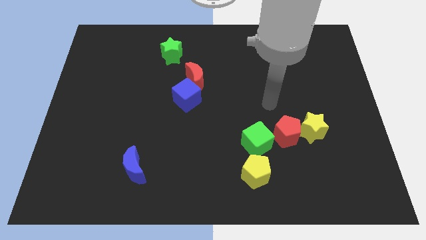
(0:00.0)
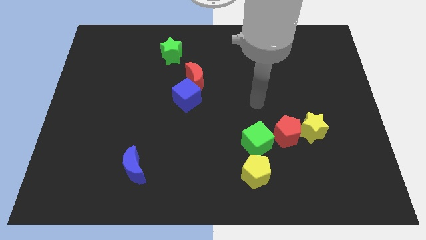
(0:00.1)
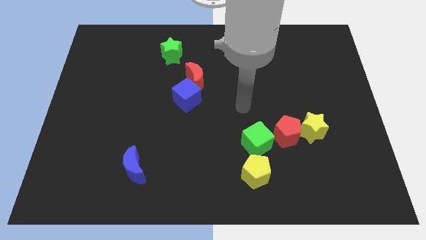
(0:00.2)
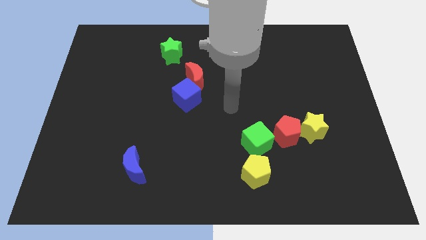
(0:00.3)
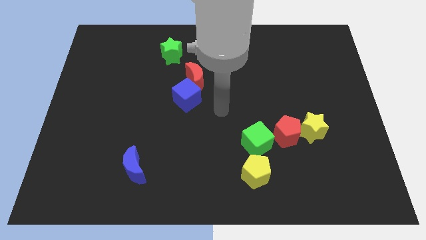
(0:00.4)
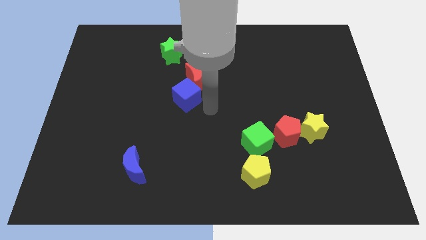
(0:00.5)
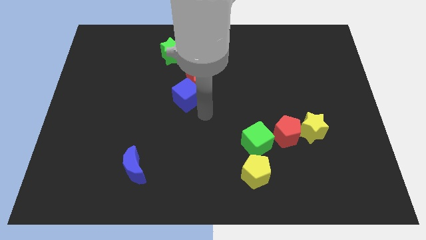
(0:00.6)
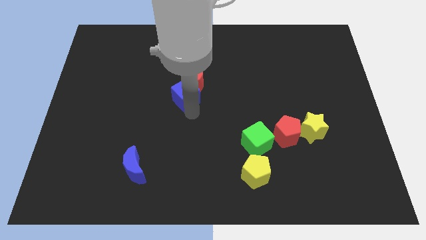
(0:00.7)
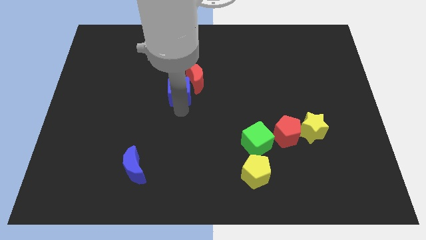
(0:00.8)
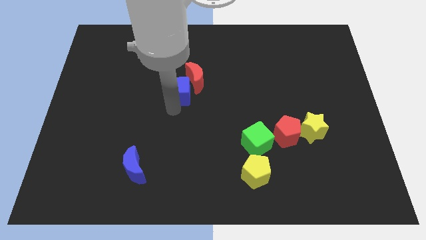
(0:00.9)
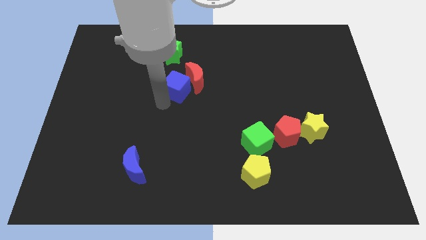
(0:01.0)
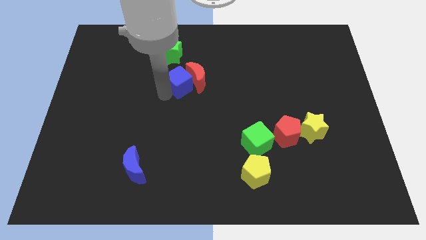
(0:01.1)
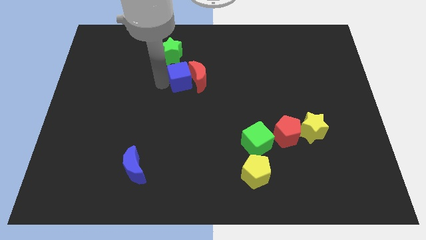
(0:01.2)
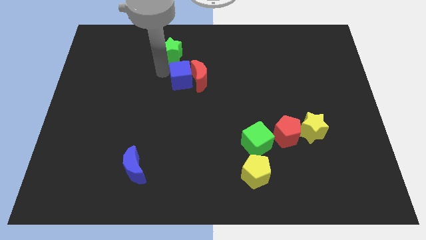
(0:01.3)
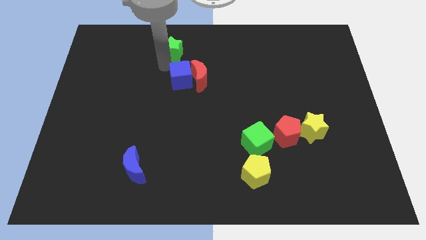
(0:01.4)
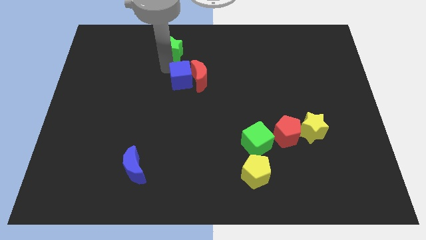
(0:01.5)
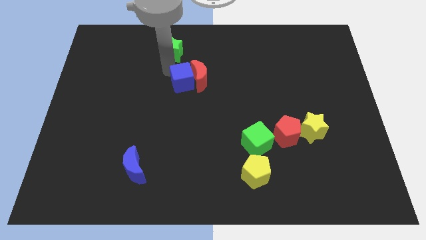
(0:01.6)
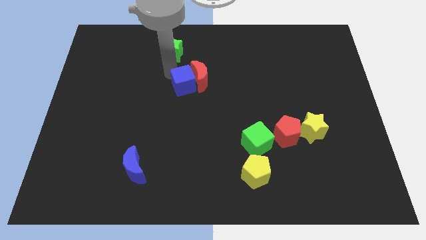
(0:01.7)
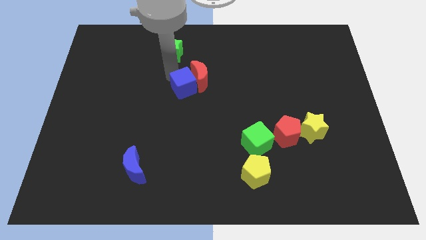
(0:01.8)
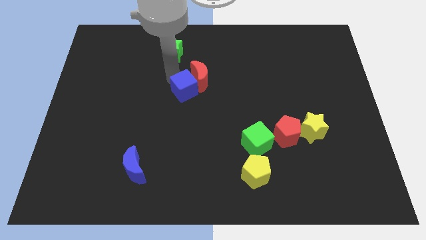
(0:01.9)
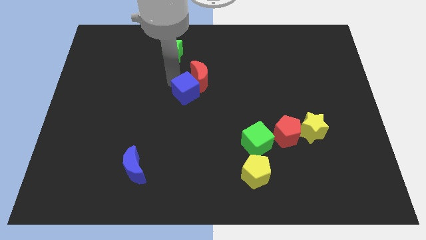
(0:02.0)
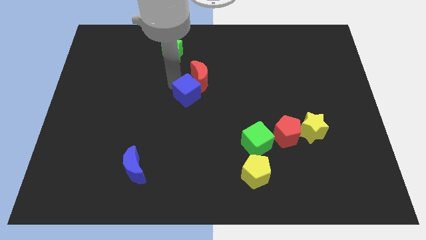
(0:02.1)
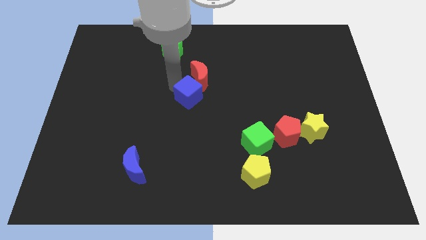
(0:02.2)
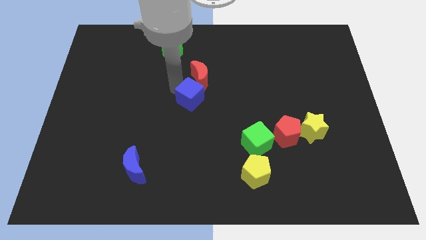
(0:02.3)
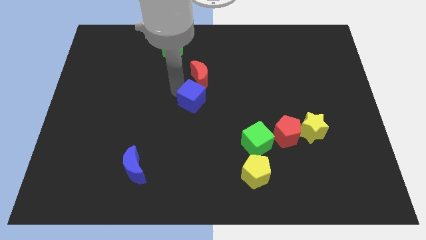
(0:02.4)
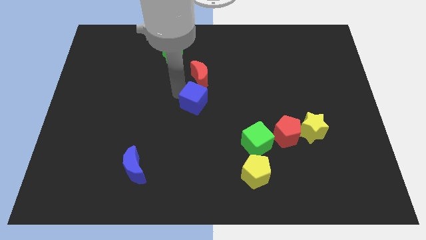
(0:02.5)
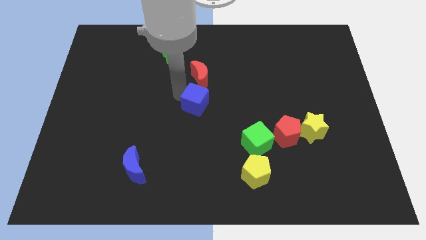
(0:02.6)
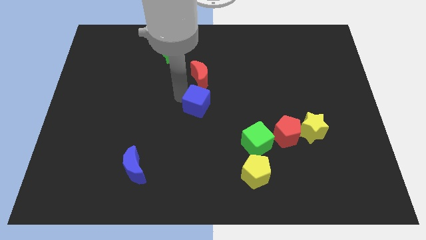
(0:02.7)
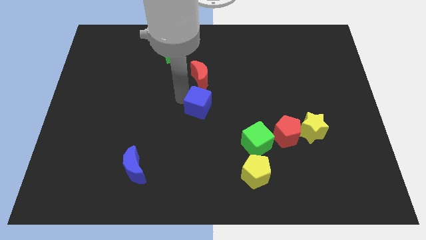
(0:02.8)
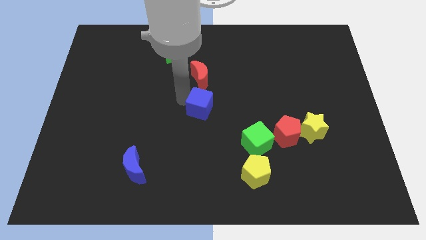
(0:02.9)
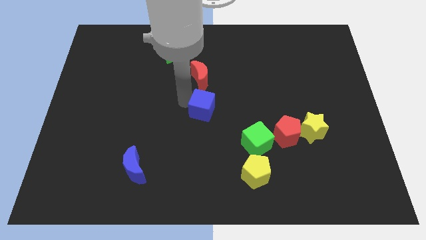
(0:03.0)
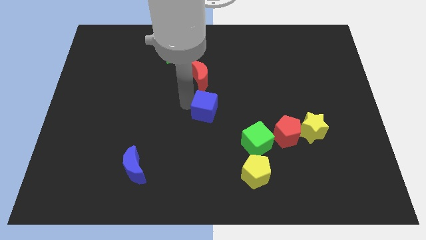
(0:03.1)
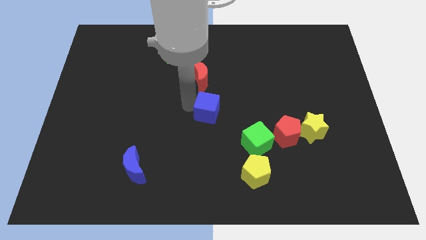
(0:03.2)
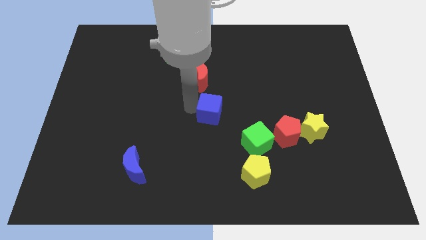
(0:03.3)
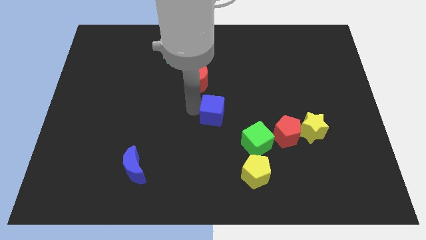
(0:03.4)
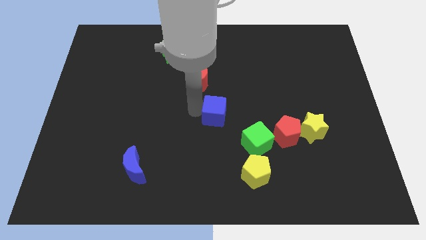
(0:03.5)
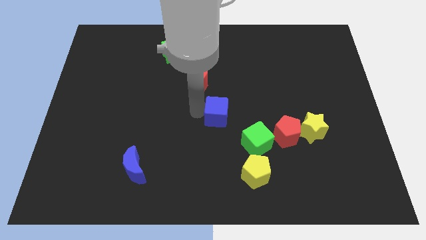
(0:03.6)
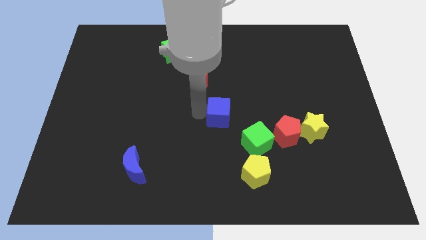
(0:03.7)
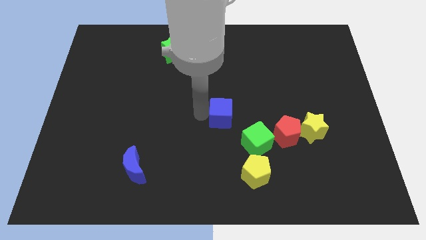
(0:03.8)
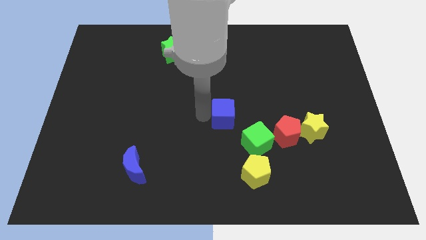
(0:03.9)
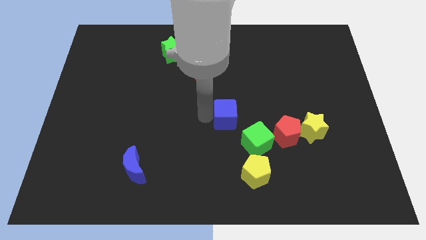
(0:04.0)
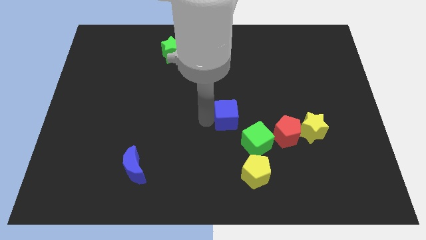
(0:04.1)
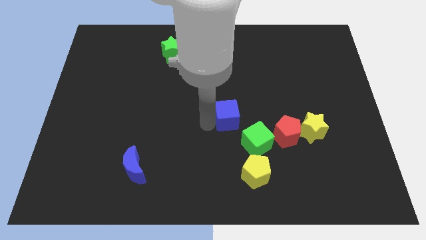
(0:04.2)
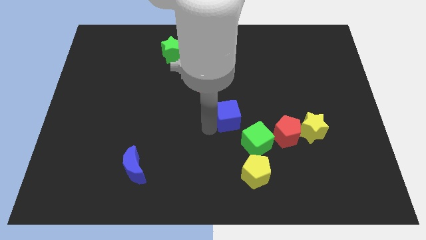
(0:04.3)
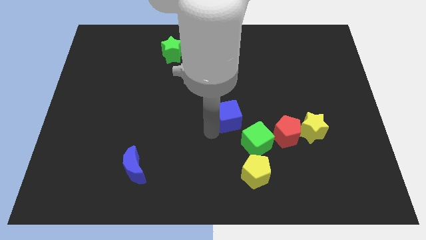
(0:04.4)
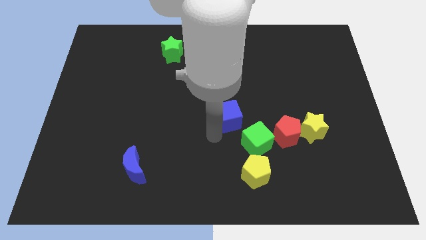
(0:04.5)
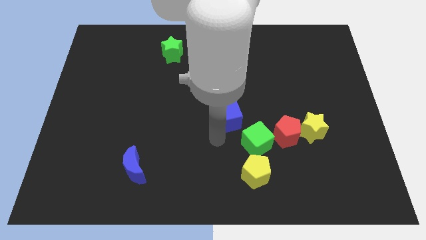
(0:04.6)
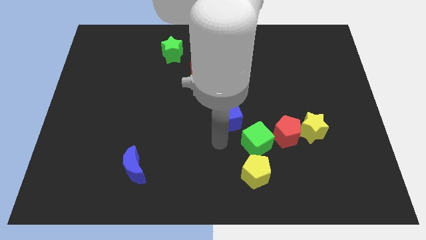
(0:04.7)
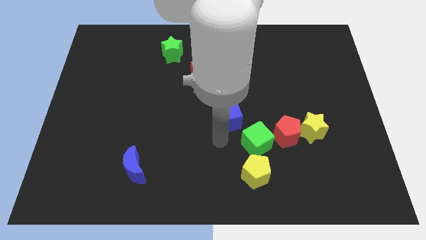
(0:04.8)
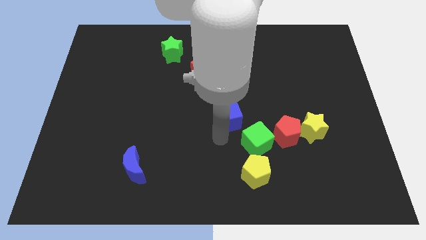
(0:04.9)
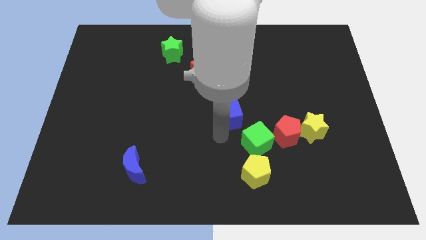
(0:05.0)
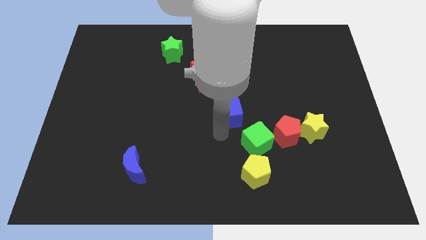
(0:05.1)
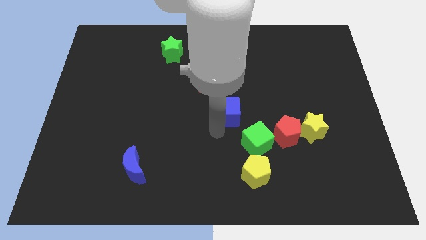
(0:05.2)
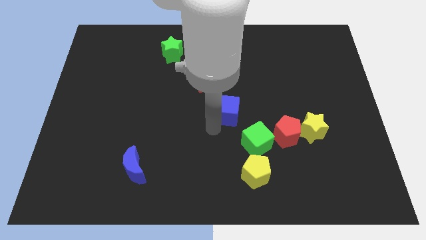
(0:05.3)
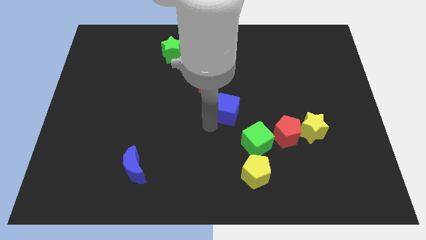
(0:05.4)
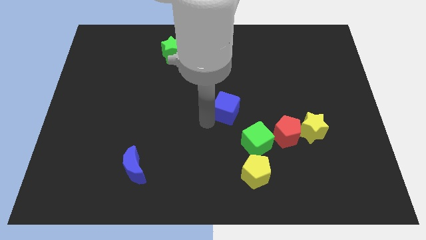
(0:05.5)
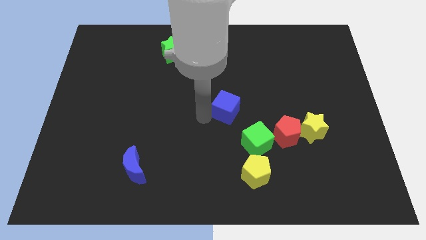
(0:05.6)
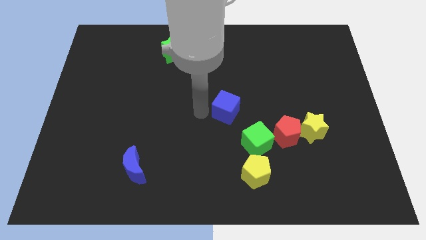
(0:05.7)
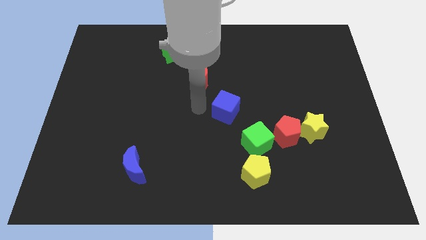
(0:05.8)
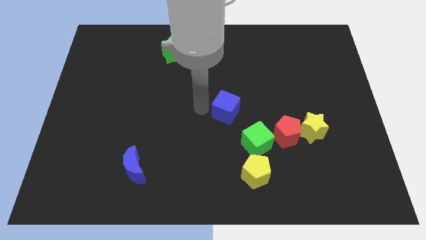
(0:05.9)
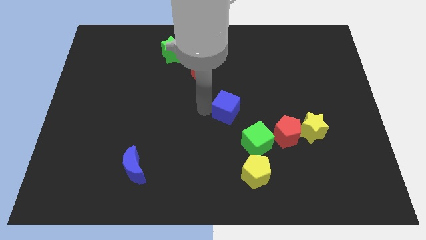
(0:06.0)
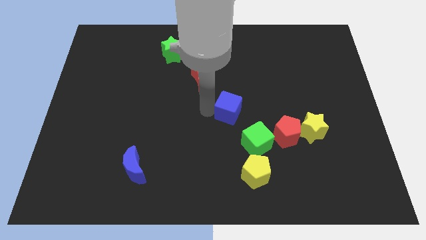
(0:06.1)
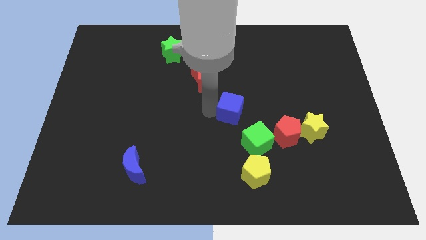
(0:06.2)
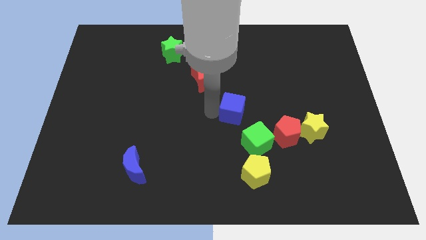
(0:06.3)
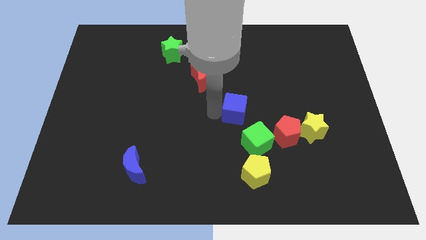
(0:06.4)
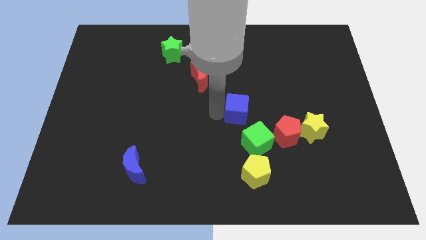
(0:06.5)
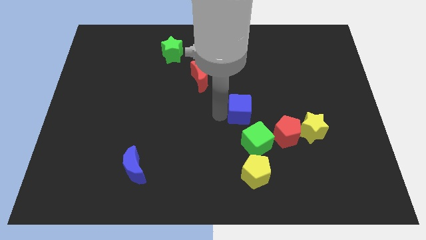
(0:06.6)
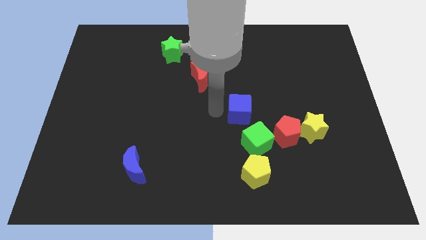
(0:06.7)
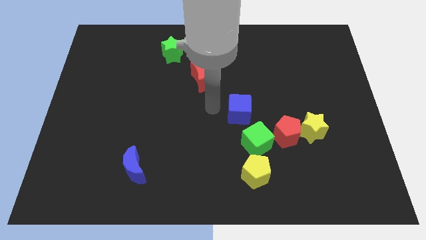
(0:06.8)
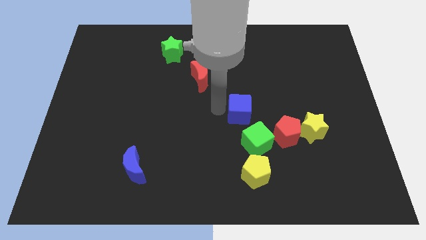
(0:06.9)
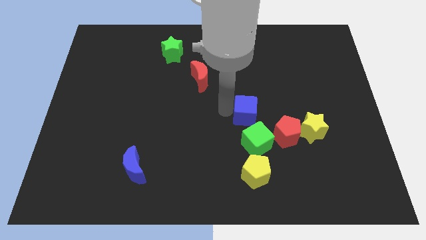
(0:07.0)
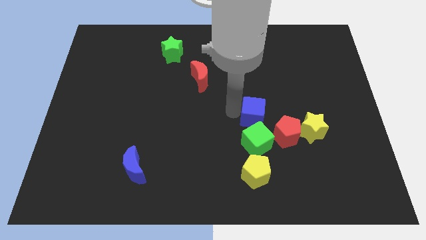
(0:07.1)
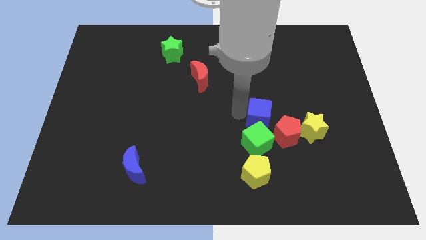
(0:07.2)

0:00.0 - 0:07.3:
put the blue cube to the top right side of the green cube
